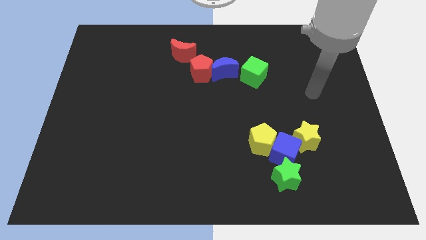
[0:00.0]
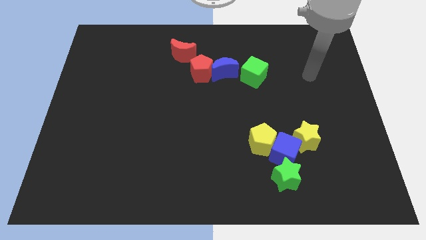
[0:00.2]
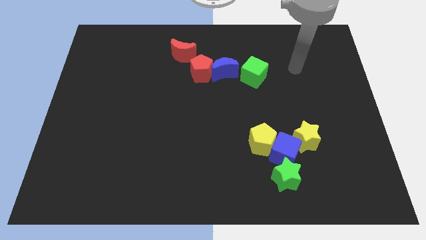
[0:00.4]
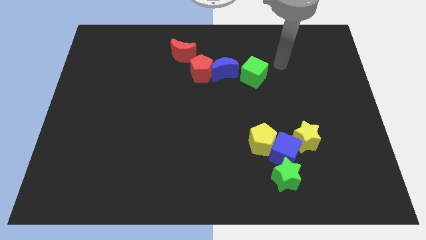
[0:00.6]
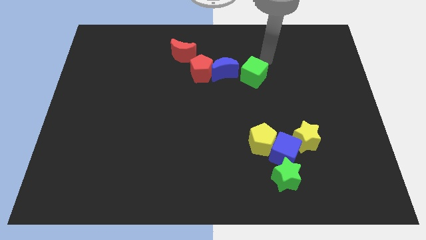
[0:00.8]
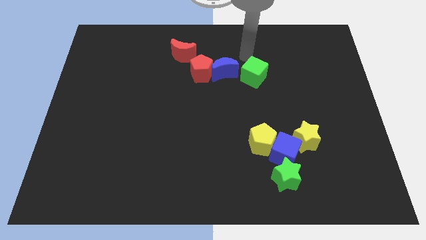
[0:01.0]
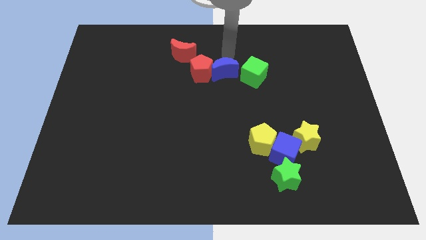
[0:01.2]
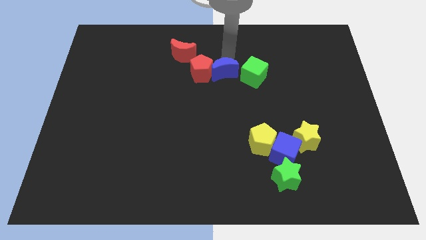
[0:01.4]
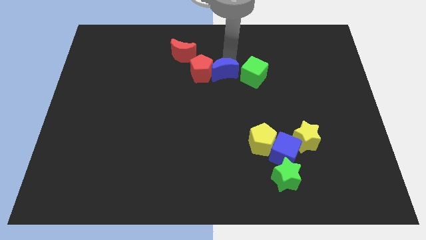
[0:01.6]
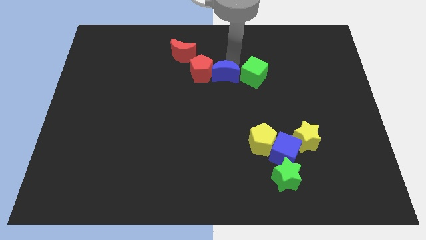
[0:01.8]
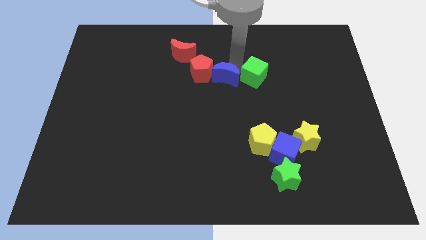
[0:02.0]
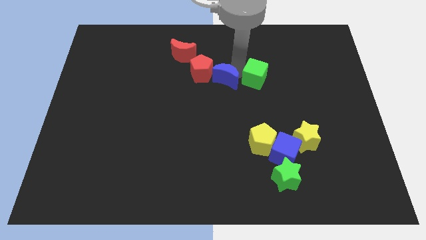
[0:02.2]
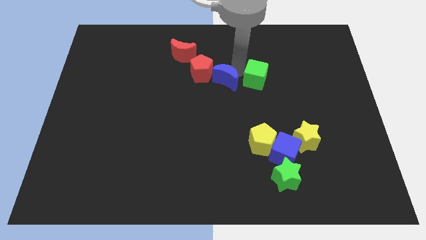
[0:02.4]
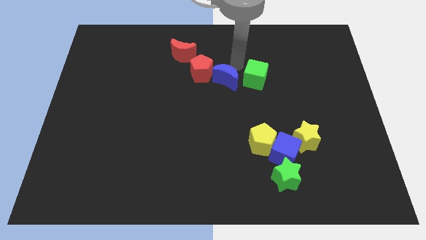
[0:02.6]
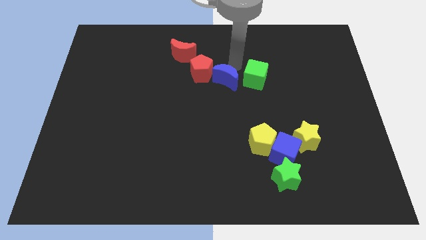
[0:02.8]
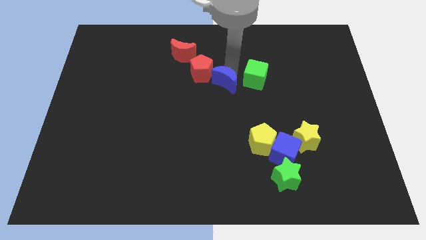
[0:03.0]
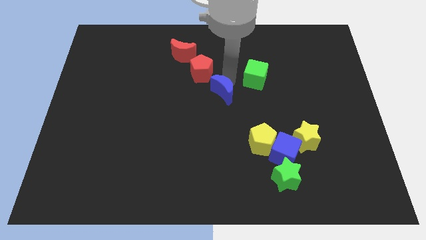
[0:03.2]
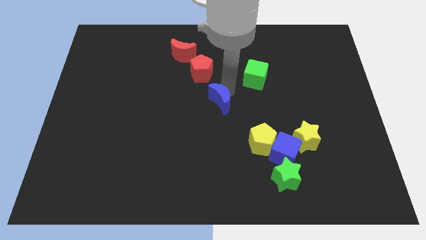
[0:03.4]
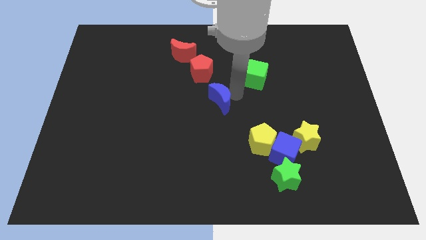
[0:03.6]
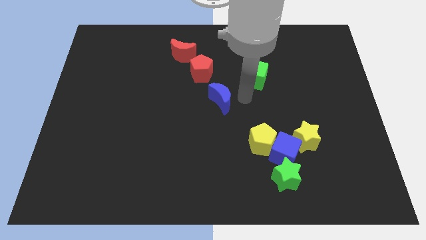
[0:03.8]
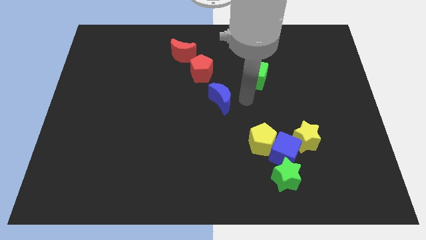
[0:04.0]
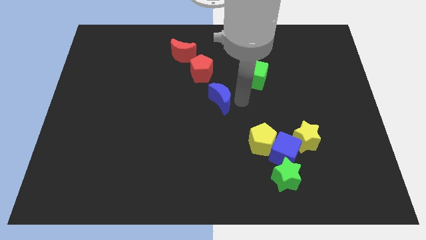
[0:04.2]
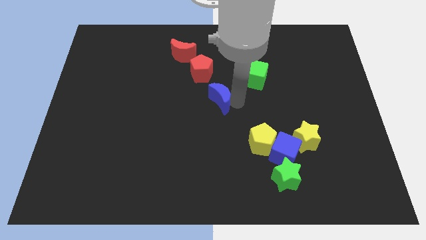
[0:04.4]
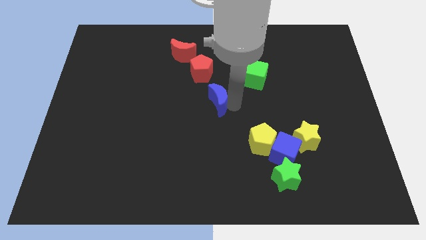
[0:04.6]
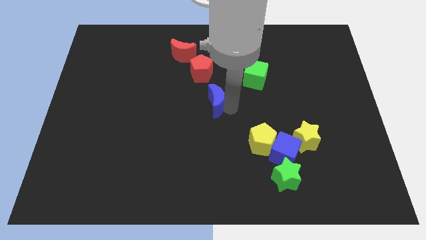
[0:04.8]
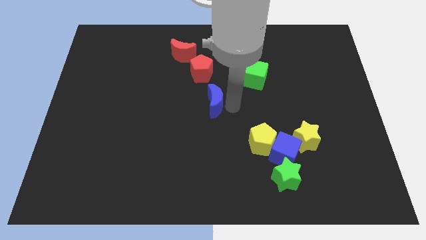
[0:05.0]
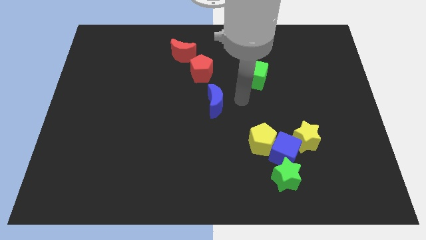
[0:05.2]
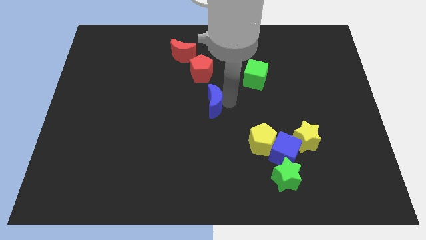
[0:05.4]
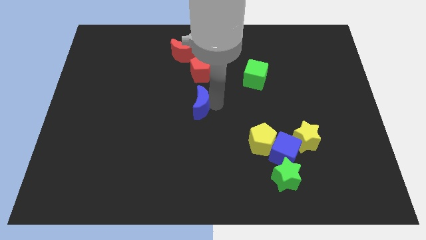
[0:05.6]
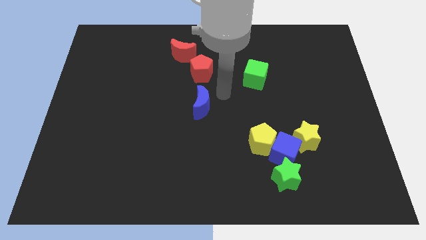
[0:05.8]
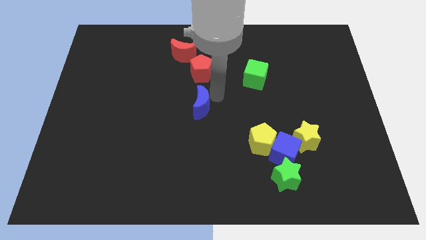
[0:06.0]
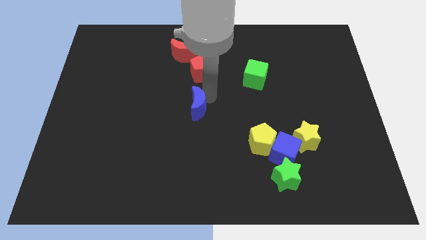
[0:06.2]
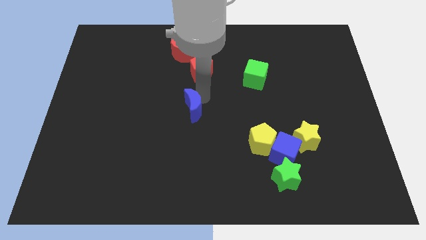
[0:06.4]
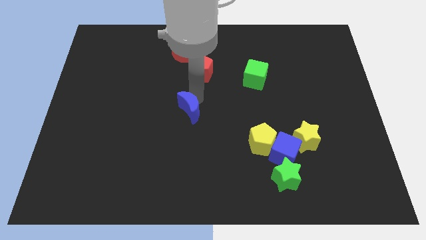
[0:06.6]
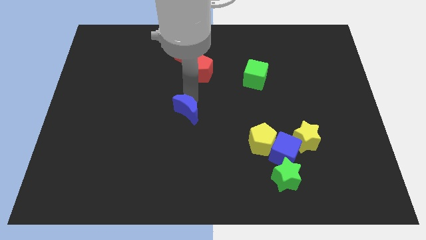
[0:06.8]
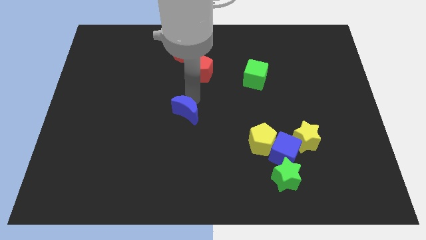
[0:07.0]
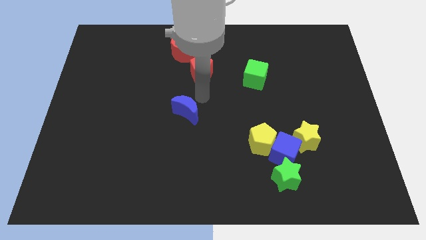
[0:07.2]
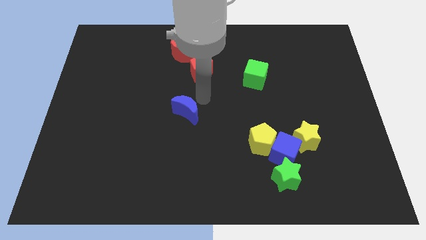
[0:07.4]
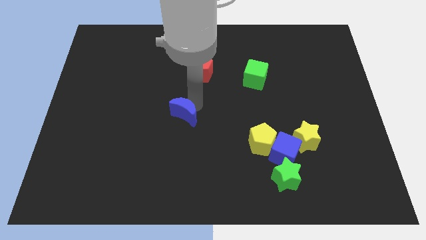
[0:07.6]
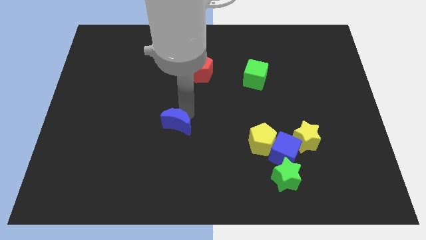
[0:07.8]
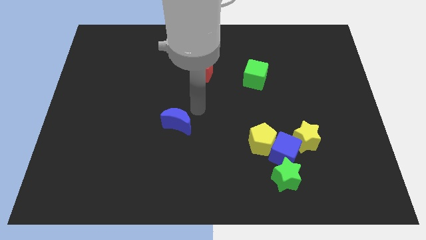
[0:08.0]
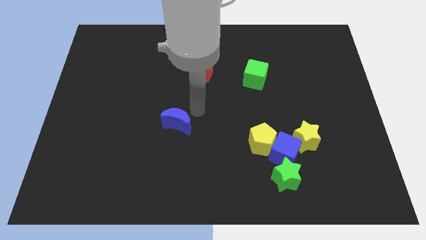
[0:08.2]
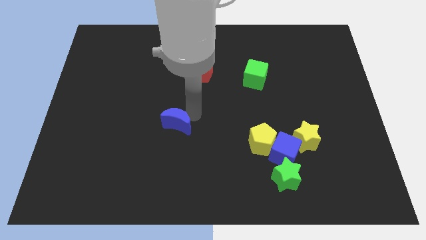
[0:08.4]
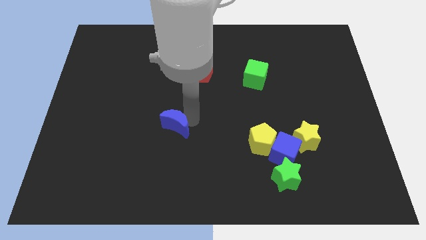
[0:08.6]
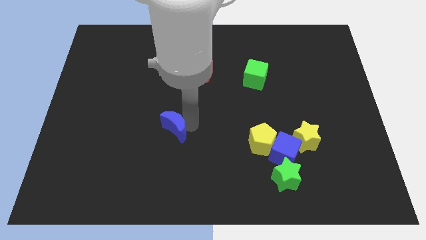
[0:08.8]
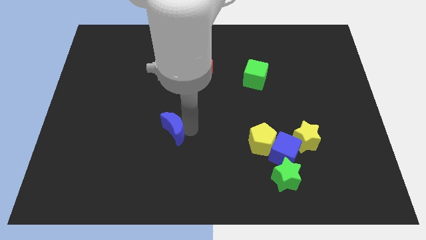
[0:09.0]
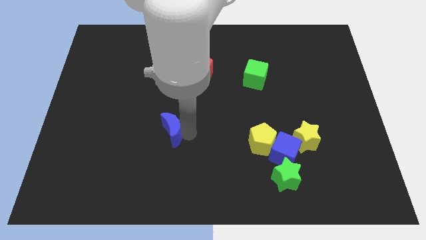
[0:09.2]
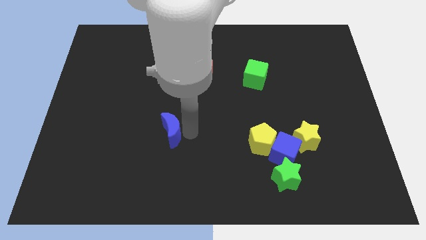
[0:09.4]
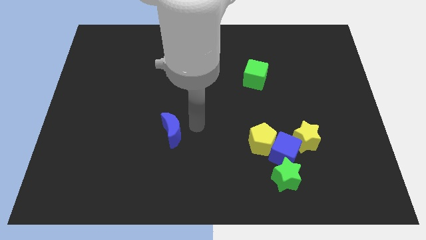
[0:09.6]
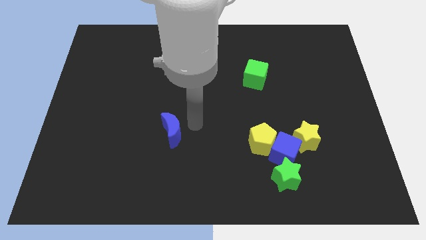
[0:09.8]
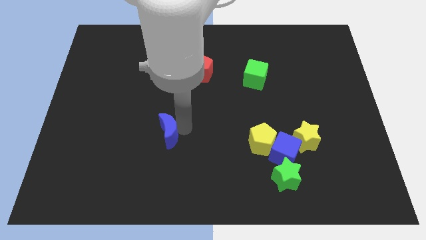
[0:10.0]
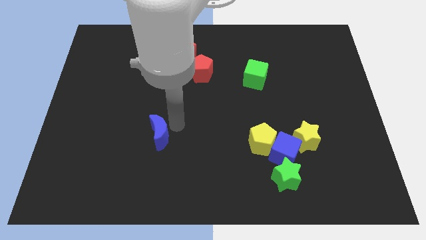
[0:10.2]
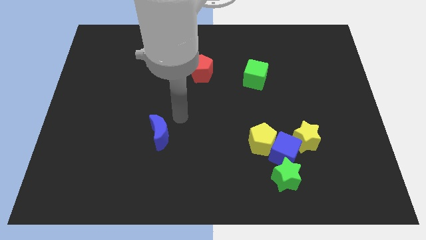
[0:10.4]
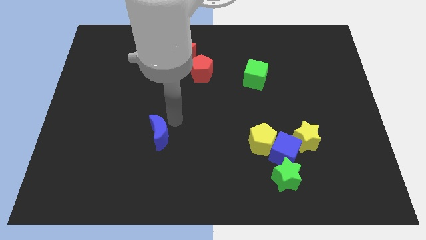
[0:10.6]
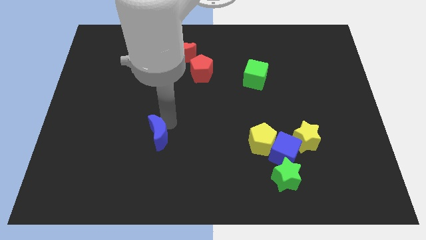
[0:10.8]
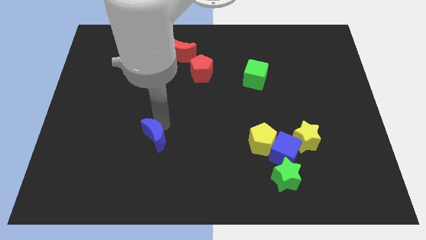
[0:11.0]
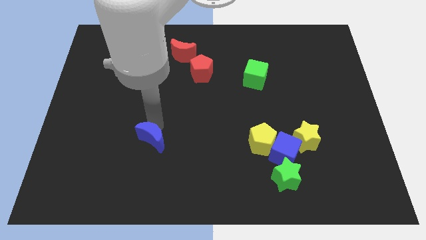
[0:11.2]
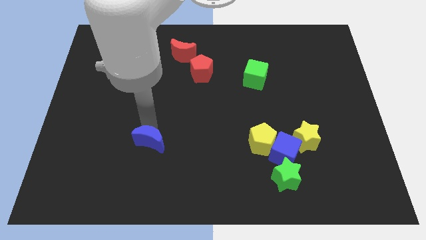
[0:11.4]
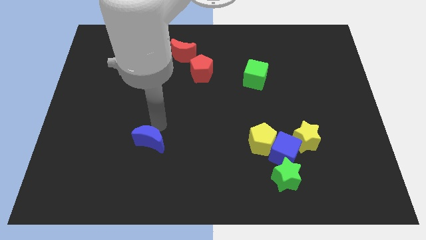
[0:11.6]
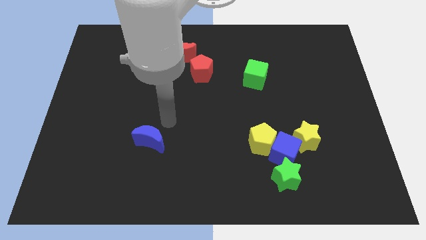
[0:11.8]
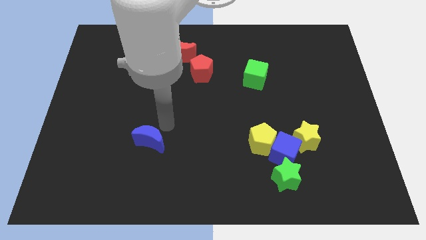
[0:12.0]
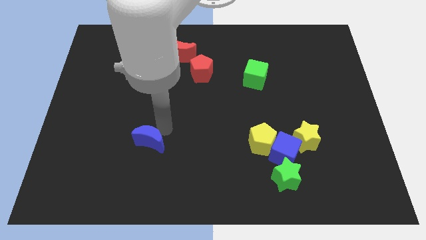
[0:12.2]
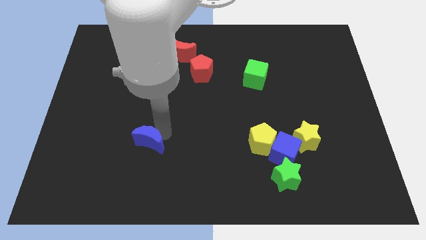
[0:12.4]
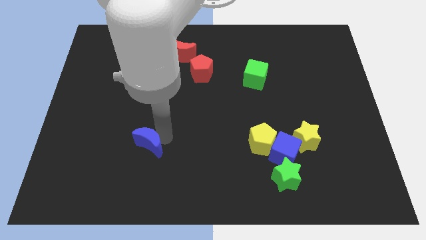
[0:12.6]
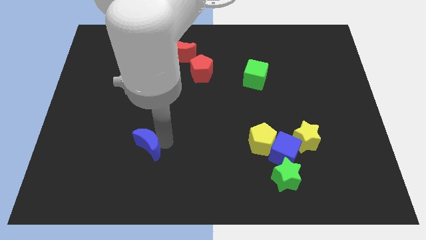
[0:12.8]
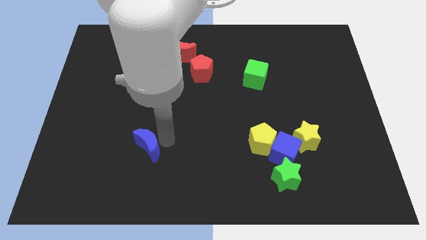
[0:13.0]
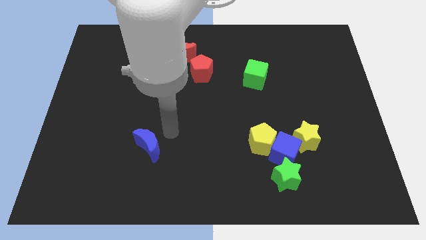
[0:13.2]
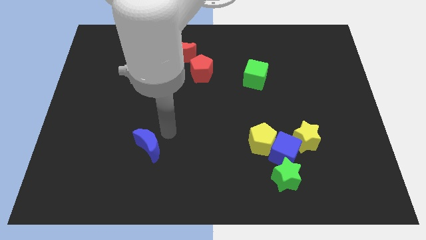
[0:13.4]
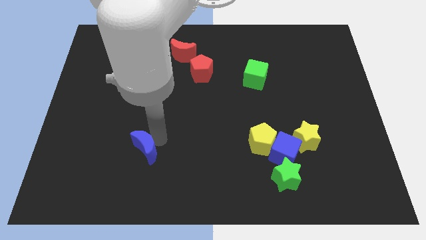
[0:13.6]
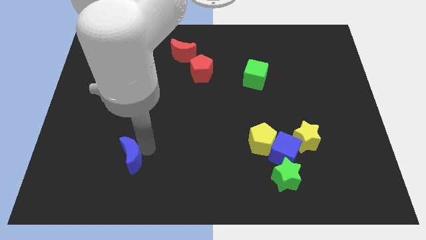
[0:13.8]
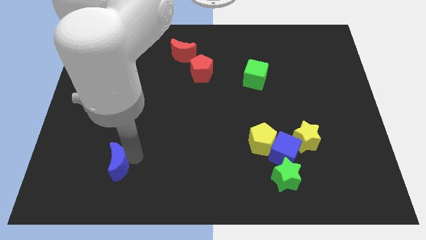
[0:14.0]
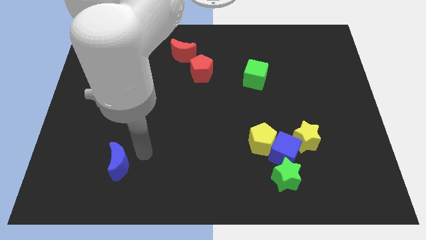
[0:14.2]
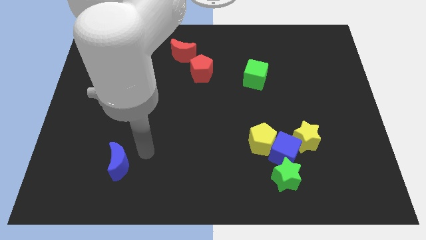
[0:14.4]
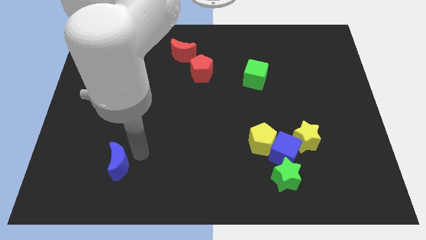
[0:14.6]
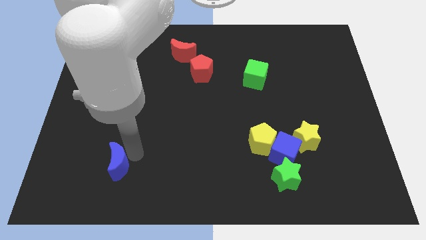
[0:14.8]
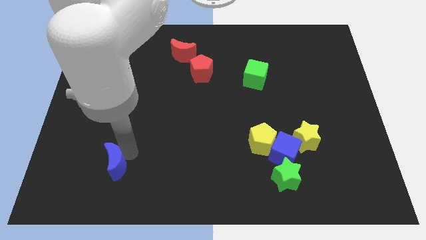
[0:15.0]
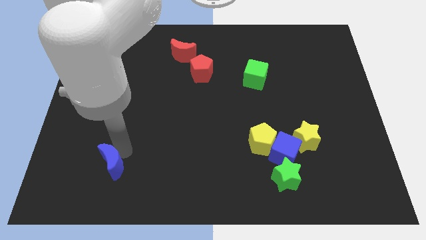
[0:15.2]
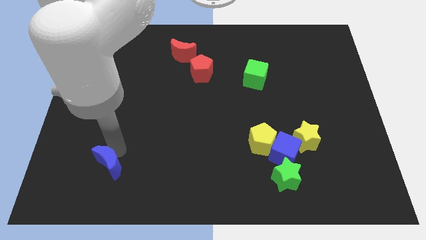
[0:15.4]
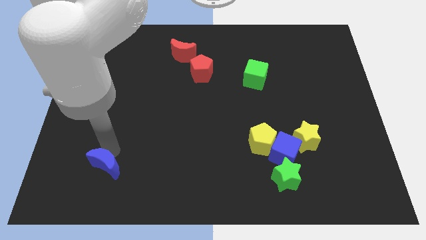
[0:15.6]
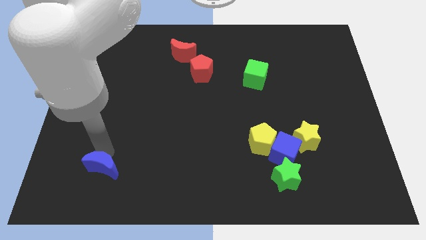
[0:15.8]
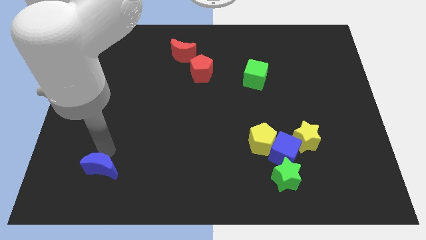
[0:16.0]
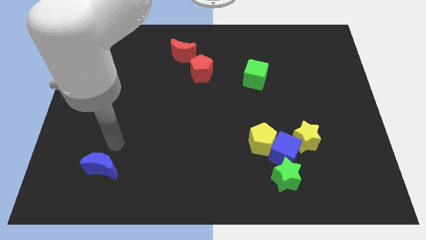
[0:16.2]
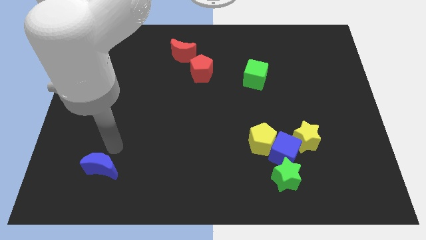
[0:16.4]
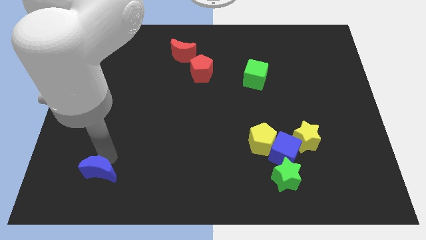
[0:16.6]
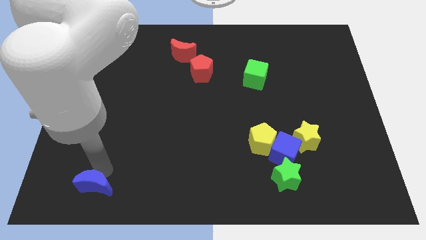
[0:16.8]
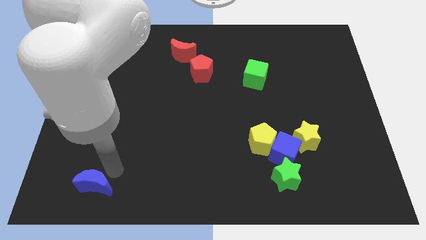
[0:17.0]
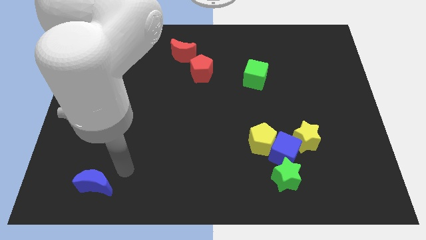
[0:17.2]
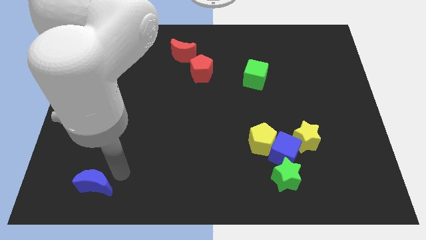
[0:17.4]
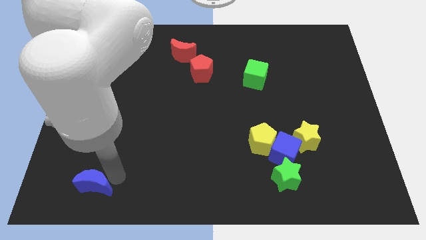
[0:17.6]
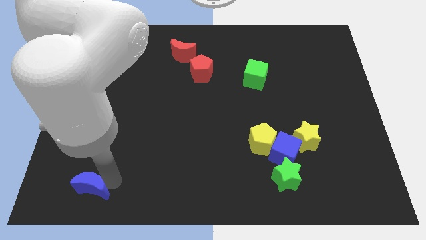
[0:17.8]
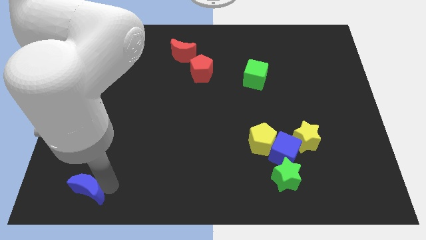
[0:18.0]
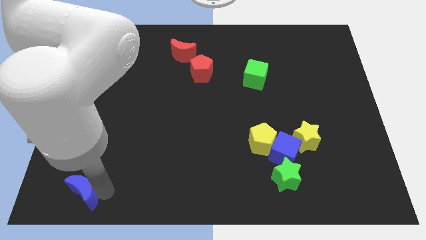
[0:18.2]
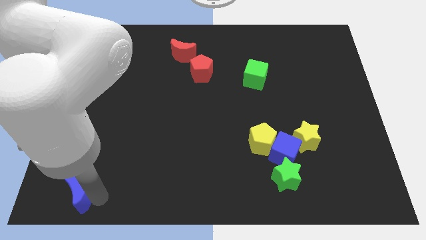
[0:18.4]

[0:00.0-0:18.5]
move the blue moon to the lower left corner
